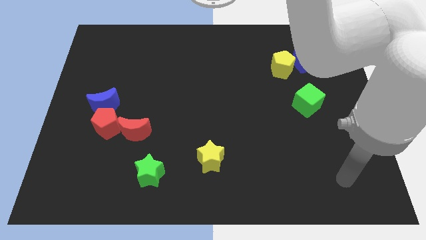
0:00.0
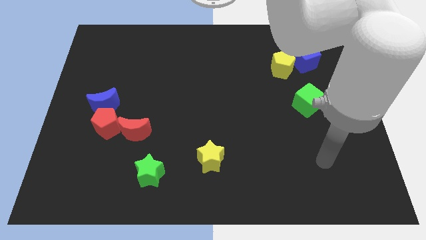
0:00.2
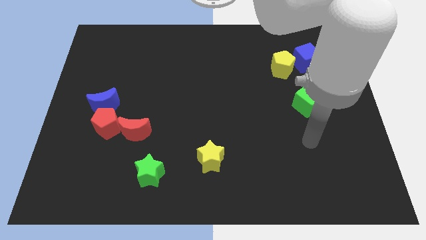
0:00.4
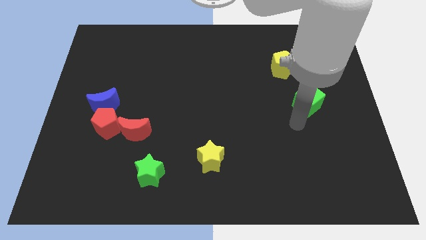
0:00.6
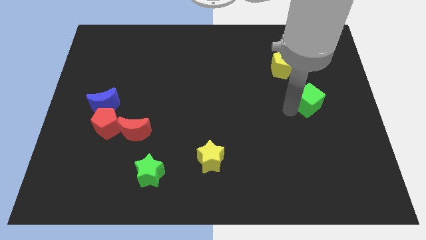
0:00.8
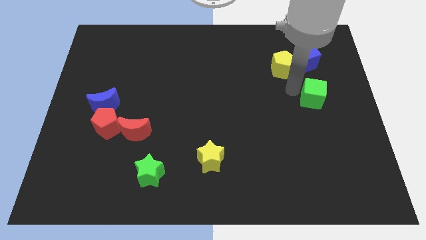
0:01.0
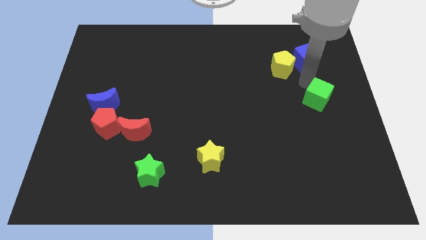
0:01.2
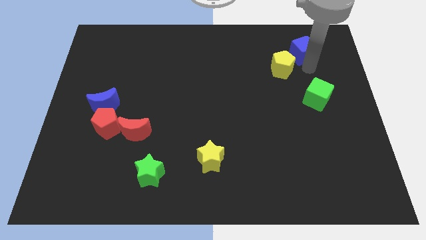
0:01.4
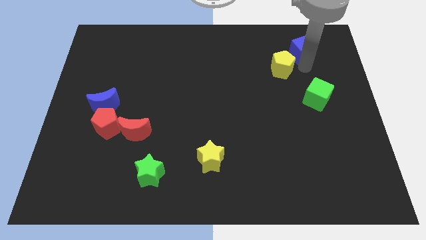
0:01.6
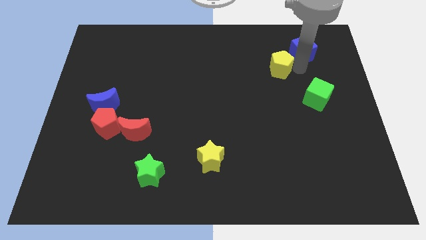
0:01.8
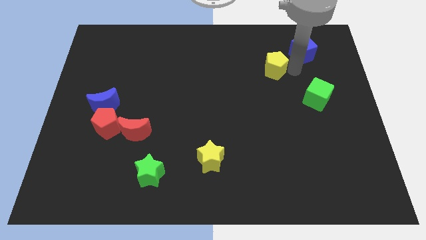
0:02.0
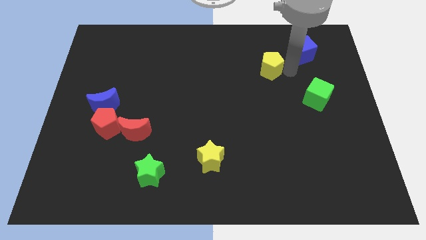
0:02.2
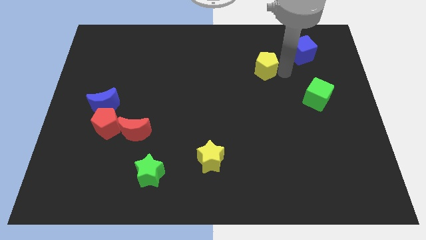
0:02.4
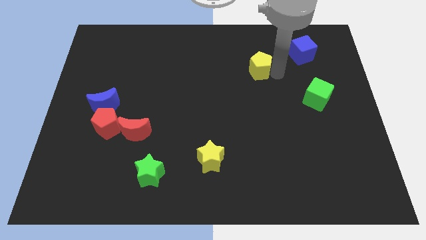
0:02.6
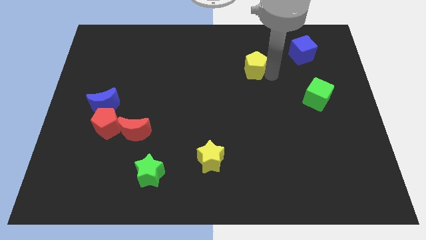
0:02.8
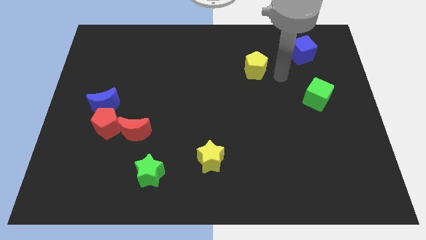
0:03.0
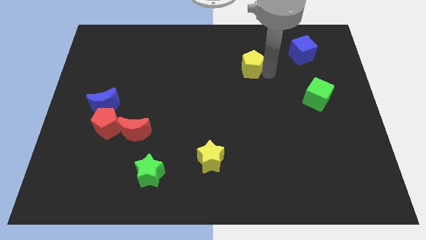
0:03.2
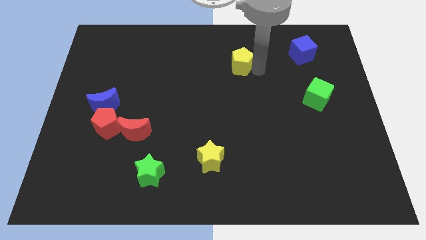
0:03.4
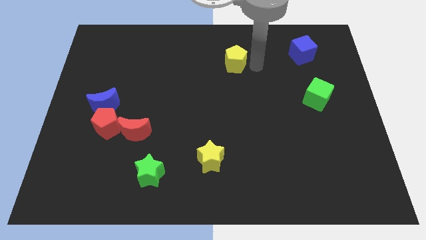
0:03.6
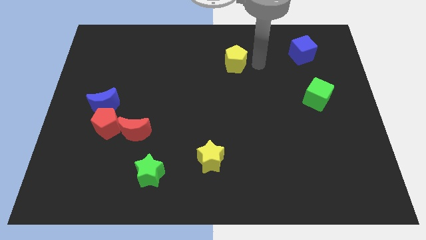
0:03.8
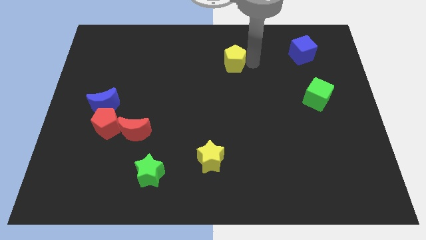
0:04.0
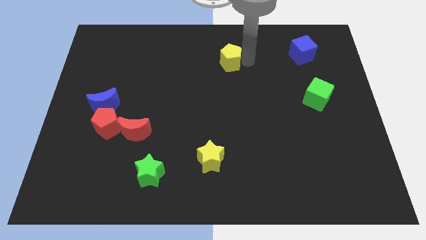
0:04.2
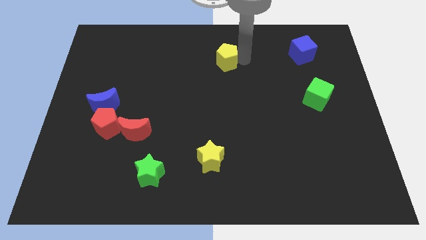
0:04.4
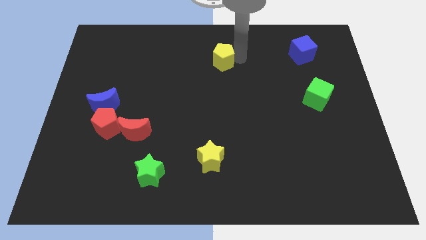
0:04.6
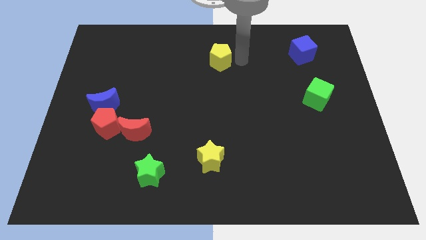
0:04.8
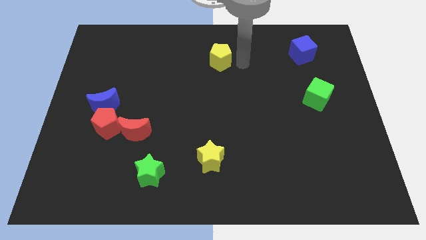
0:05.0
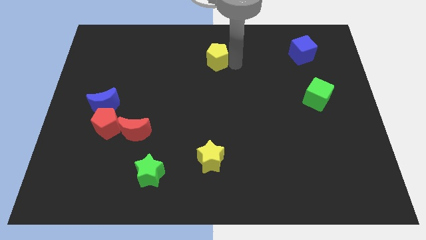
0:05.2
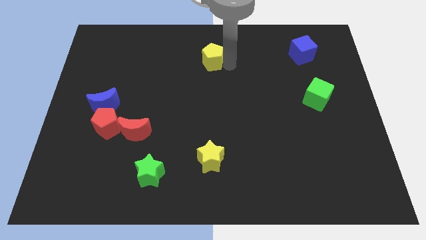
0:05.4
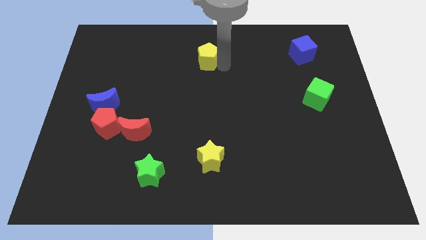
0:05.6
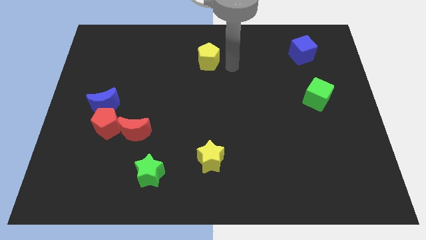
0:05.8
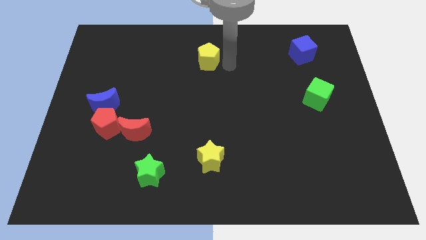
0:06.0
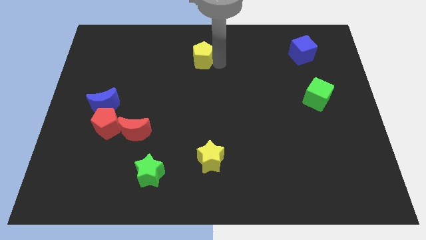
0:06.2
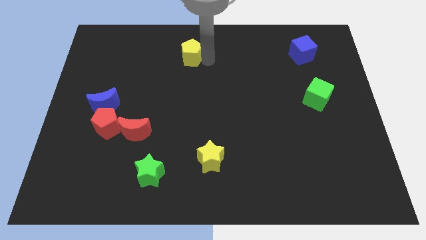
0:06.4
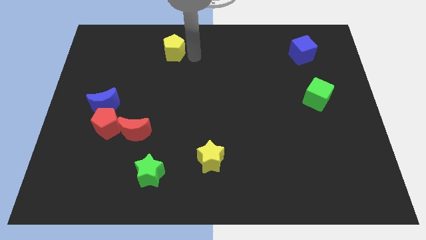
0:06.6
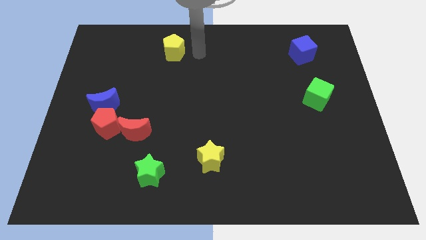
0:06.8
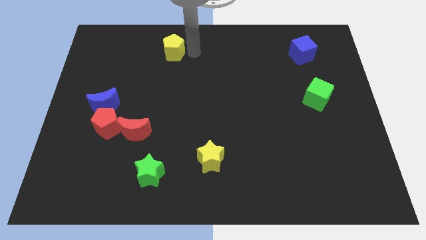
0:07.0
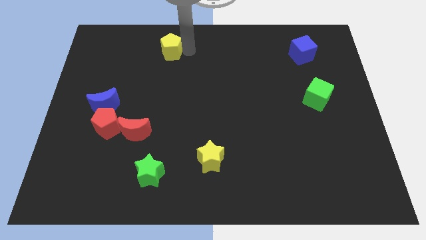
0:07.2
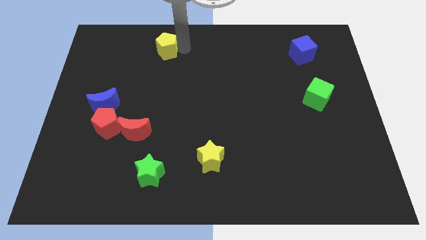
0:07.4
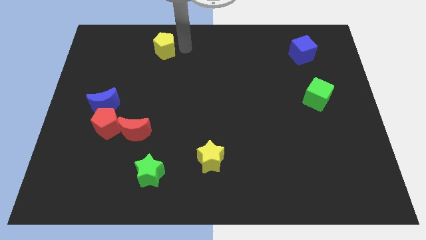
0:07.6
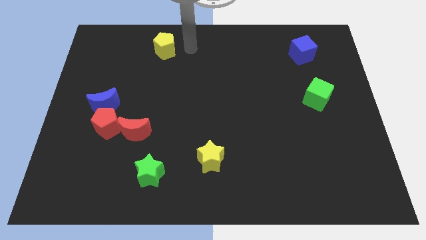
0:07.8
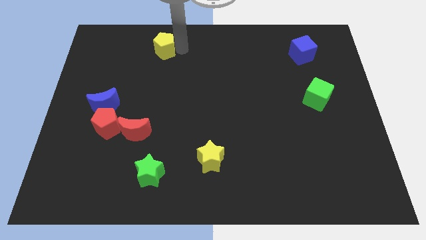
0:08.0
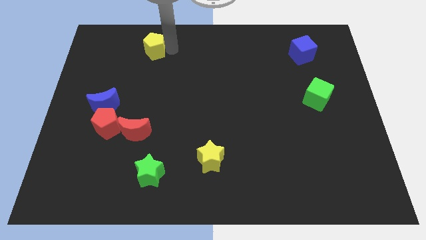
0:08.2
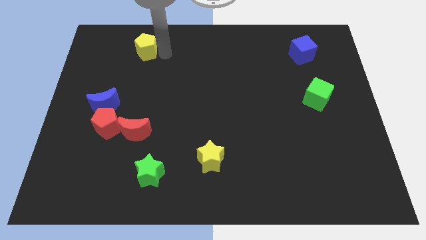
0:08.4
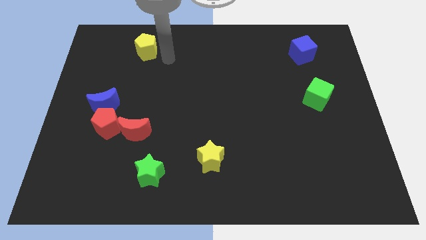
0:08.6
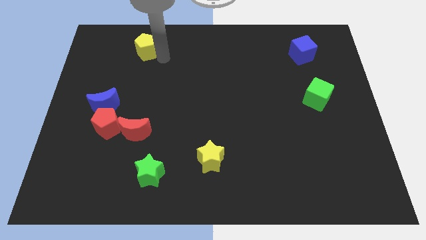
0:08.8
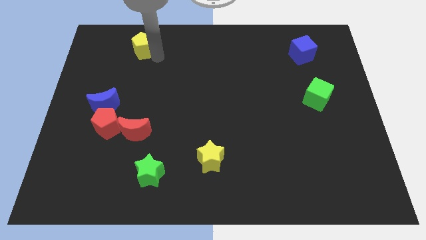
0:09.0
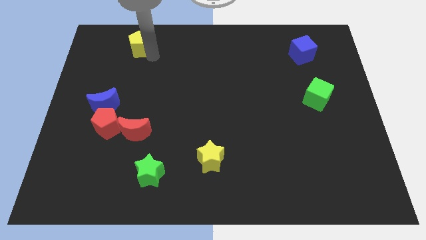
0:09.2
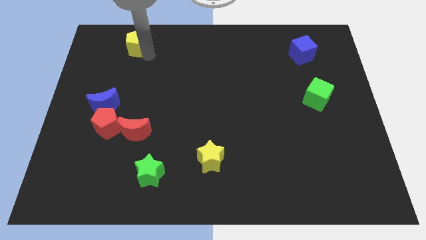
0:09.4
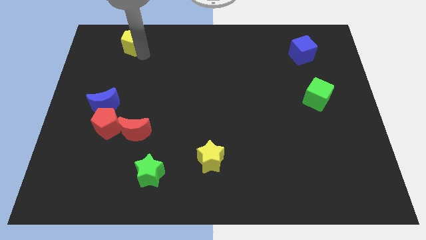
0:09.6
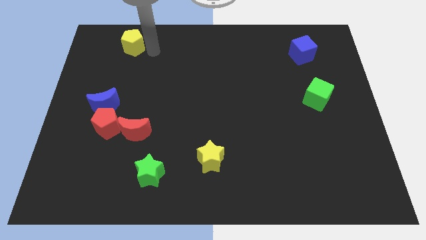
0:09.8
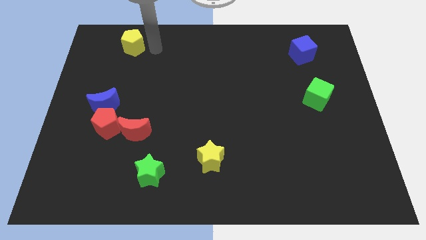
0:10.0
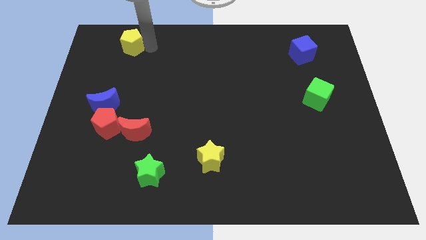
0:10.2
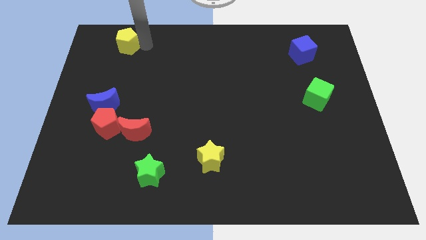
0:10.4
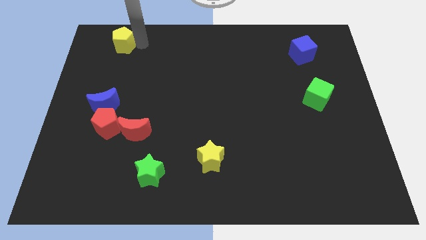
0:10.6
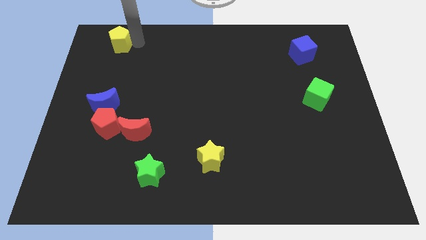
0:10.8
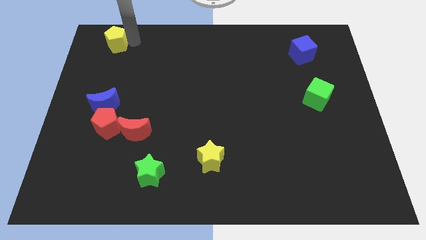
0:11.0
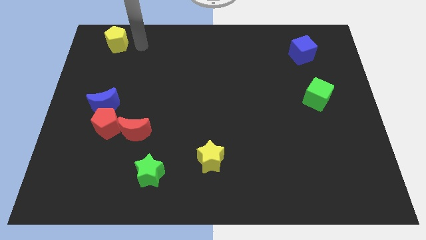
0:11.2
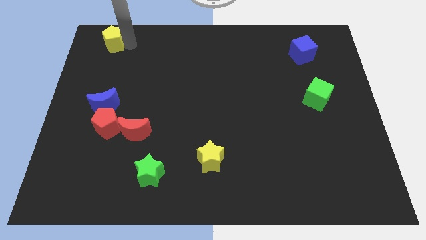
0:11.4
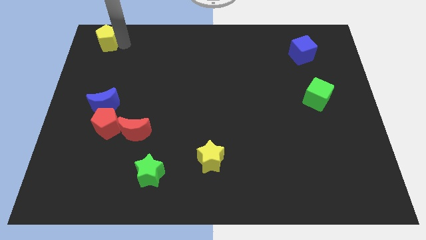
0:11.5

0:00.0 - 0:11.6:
slide the yellow pentagon to the top left corner
